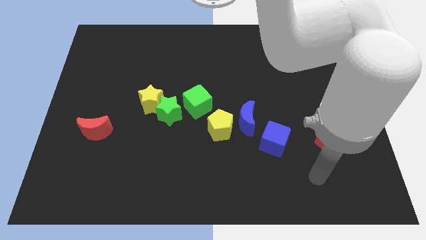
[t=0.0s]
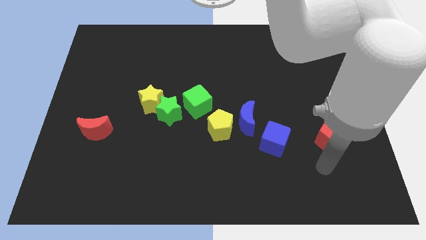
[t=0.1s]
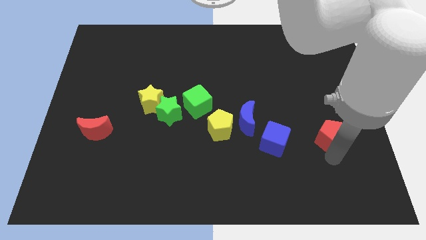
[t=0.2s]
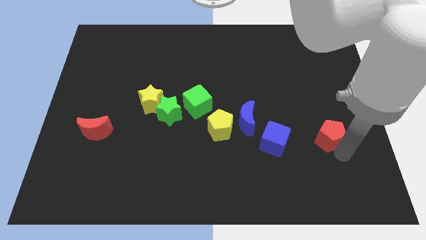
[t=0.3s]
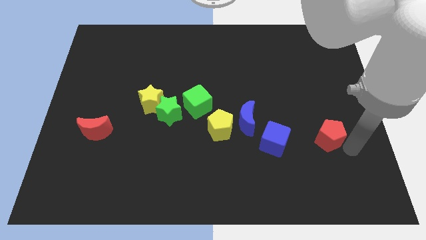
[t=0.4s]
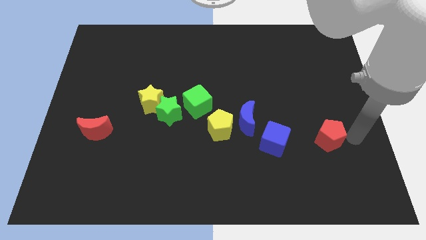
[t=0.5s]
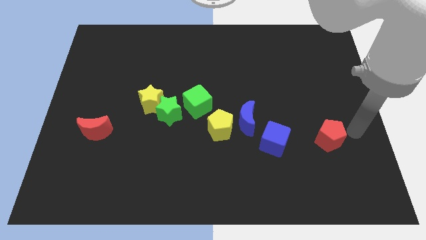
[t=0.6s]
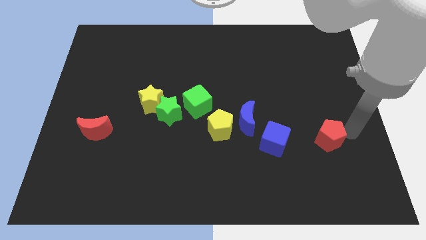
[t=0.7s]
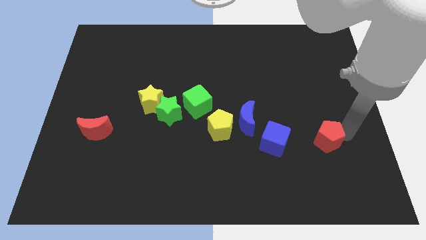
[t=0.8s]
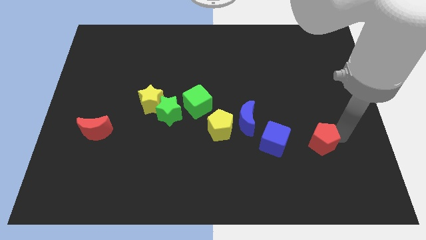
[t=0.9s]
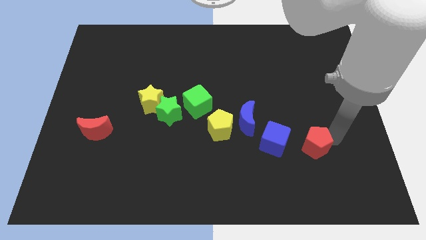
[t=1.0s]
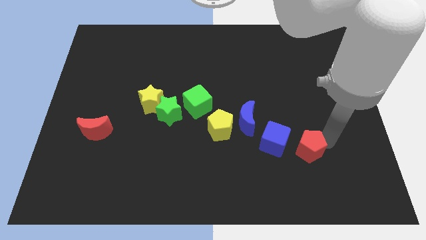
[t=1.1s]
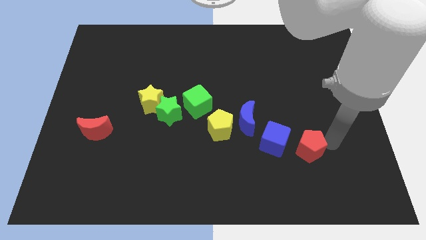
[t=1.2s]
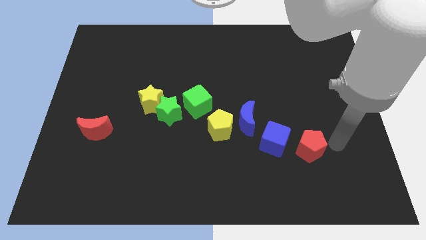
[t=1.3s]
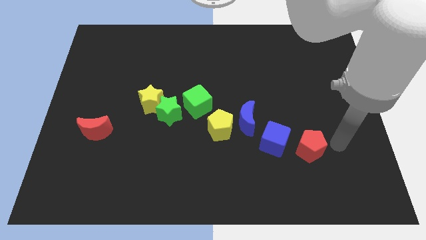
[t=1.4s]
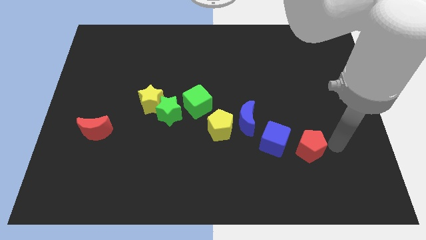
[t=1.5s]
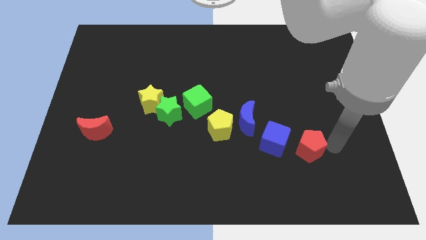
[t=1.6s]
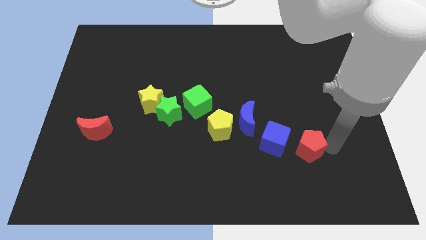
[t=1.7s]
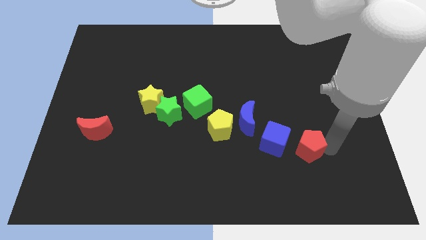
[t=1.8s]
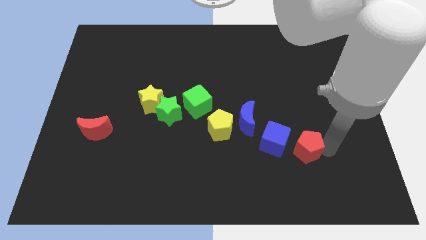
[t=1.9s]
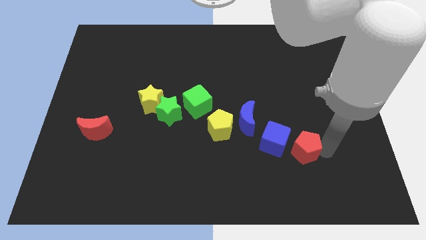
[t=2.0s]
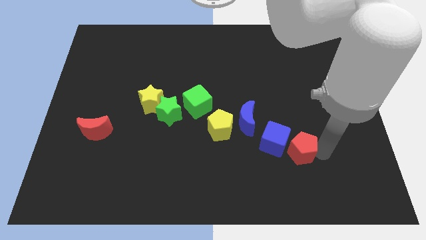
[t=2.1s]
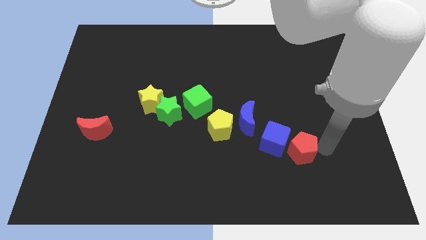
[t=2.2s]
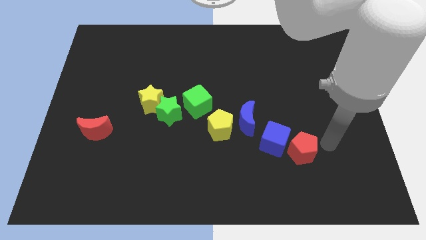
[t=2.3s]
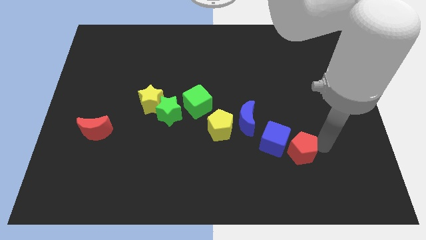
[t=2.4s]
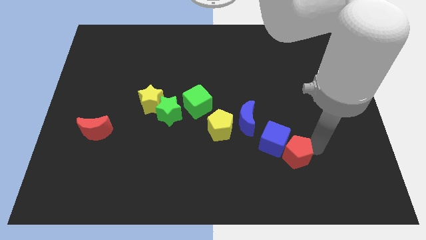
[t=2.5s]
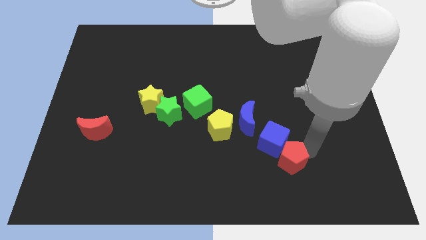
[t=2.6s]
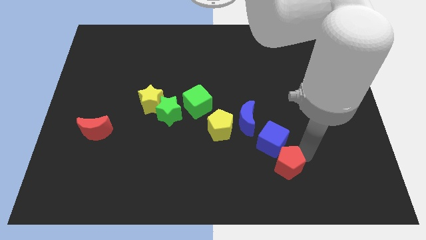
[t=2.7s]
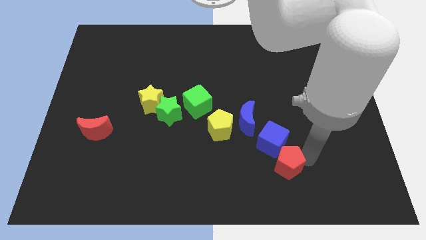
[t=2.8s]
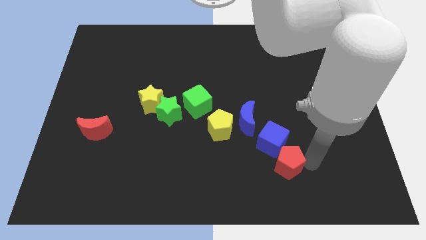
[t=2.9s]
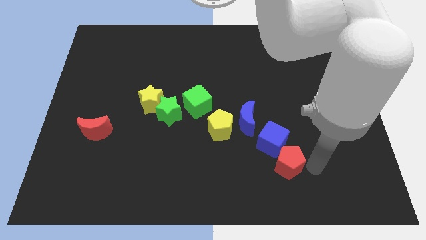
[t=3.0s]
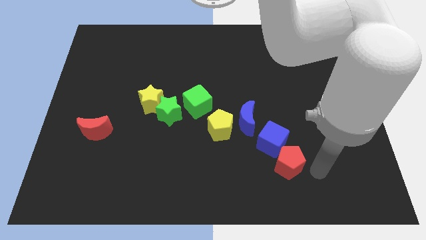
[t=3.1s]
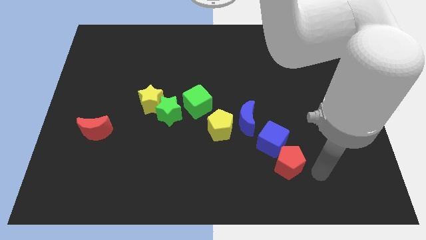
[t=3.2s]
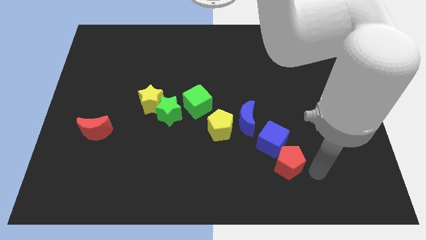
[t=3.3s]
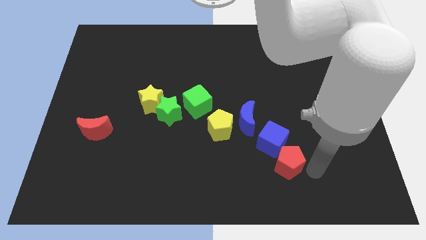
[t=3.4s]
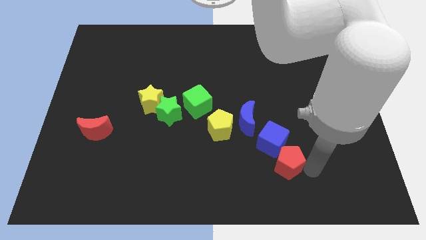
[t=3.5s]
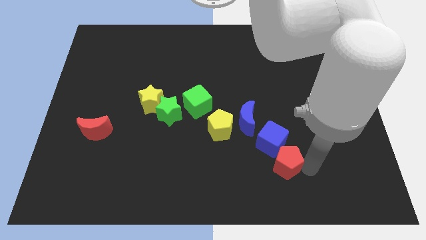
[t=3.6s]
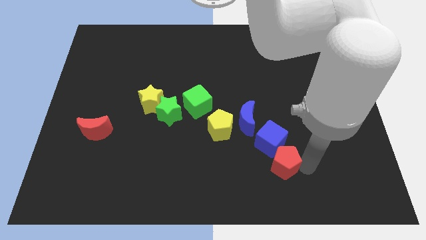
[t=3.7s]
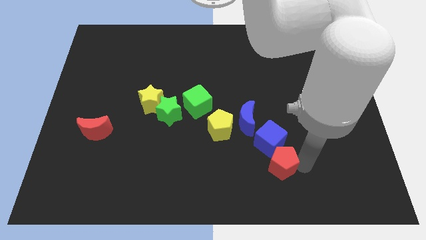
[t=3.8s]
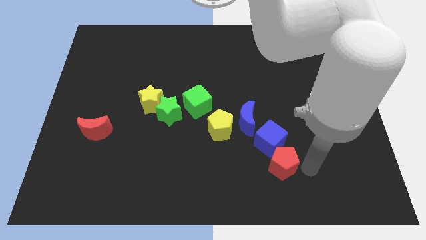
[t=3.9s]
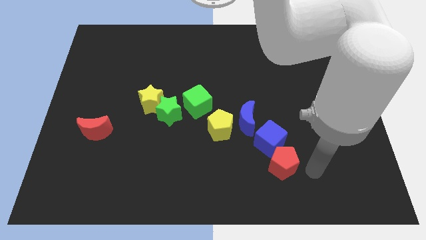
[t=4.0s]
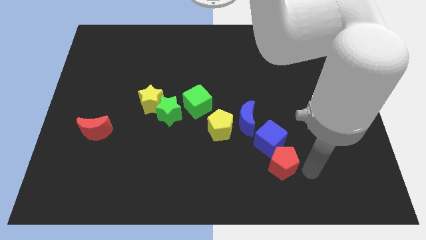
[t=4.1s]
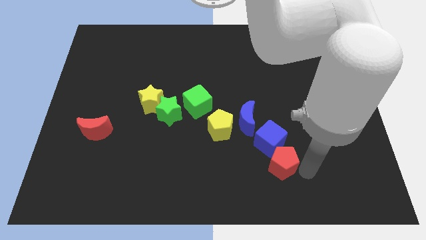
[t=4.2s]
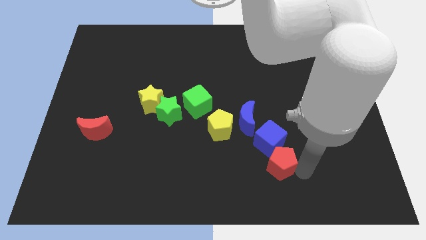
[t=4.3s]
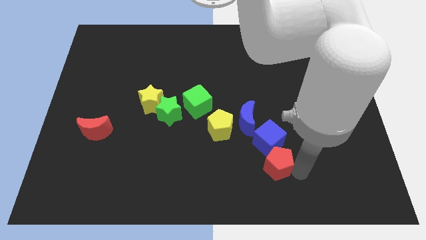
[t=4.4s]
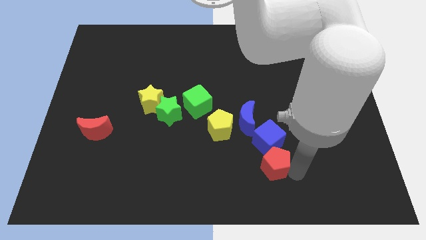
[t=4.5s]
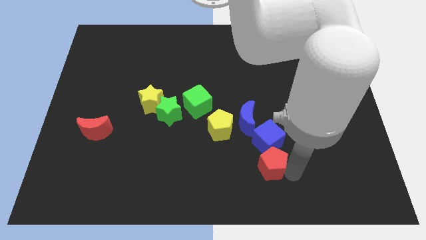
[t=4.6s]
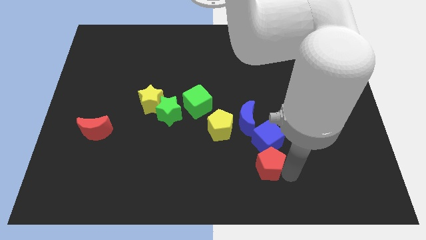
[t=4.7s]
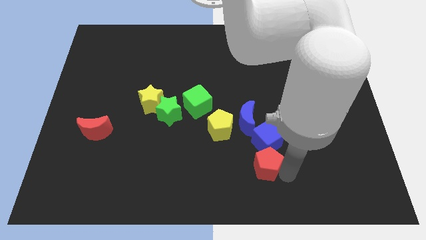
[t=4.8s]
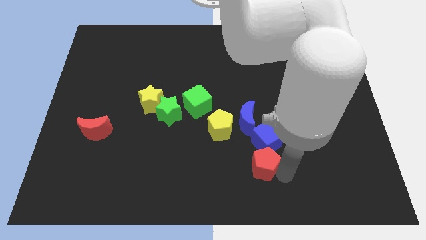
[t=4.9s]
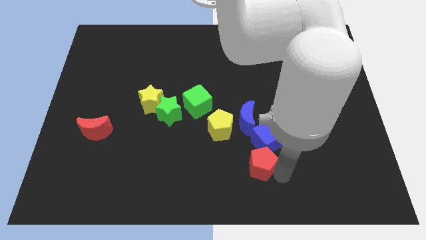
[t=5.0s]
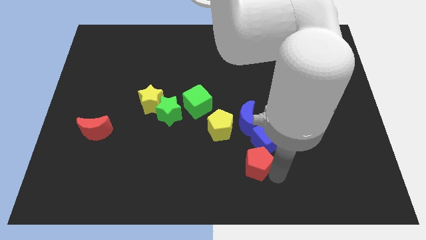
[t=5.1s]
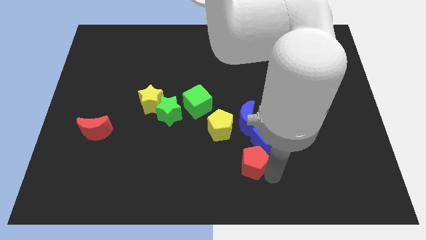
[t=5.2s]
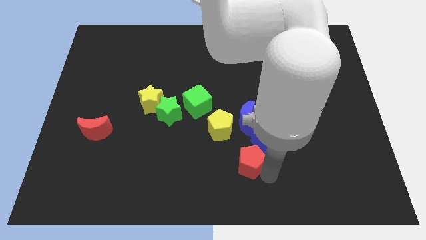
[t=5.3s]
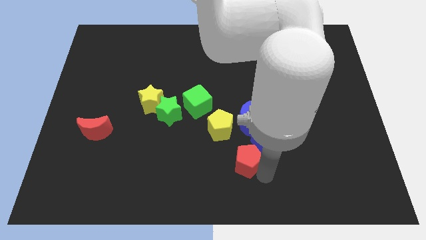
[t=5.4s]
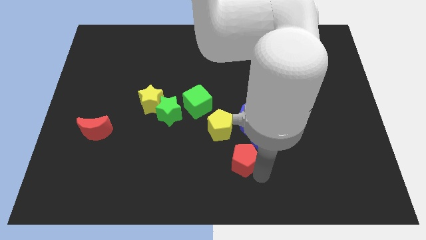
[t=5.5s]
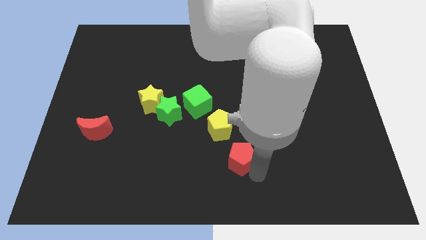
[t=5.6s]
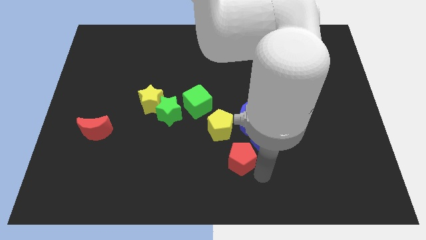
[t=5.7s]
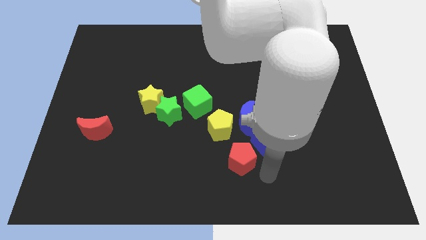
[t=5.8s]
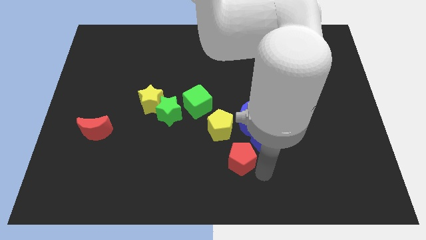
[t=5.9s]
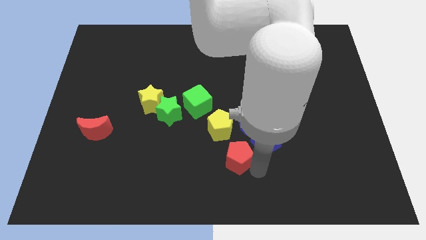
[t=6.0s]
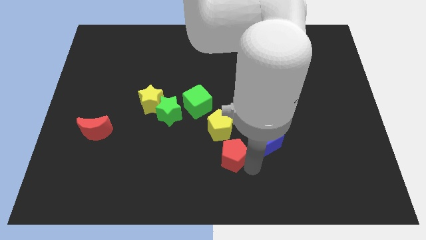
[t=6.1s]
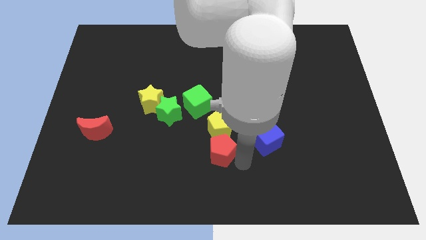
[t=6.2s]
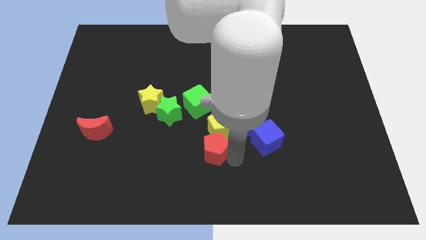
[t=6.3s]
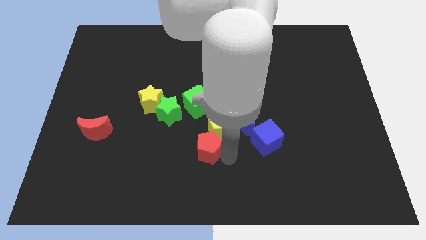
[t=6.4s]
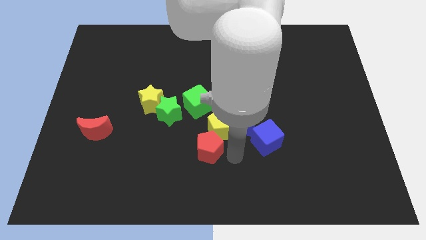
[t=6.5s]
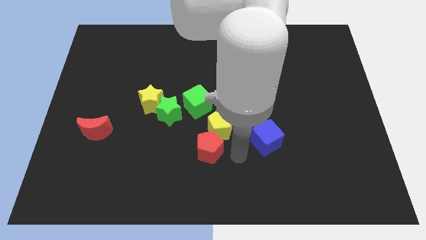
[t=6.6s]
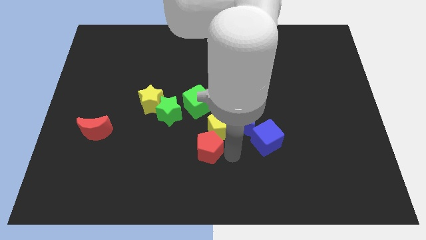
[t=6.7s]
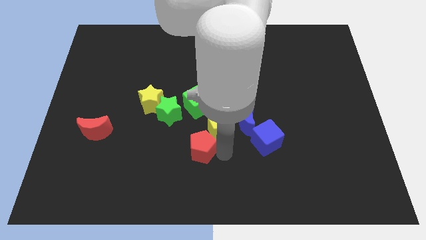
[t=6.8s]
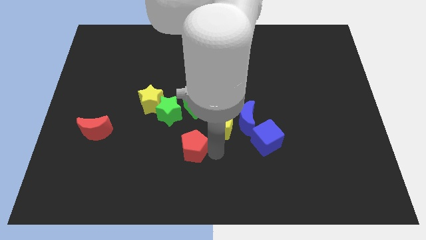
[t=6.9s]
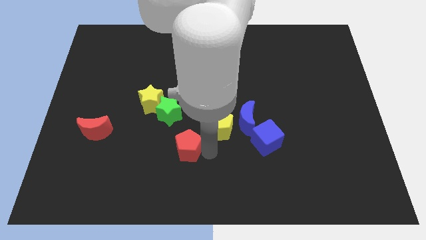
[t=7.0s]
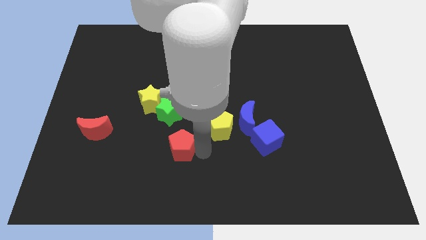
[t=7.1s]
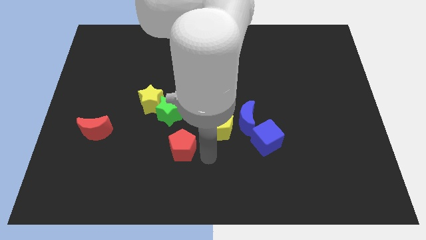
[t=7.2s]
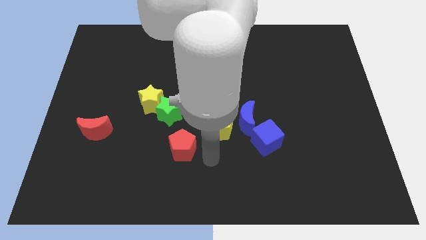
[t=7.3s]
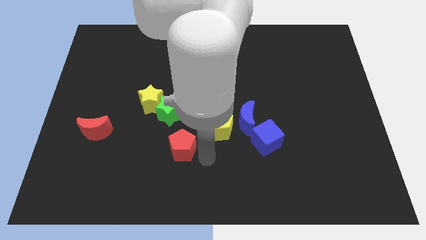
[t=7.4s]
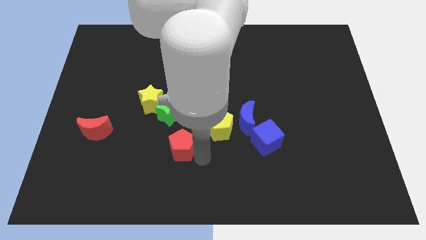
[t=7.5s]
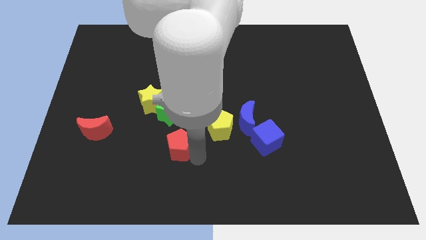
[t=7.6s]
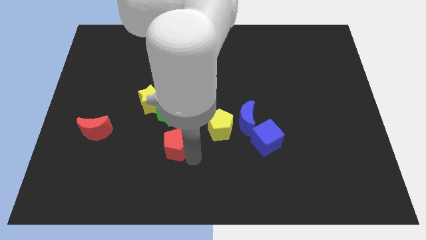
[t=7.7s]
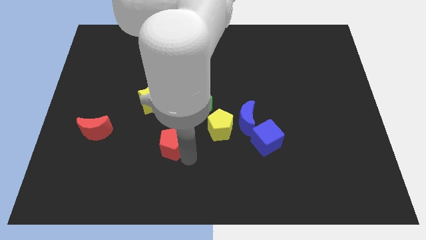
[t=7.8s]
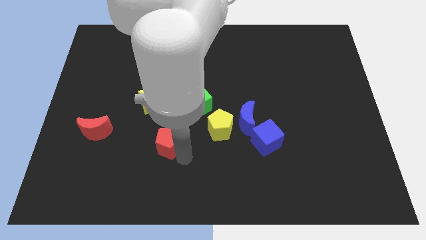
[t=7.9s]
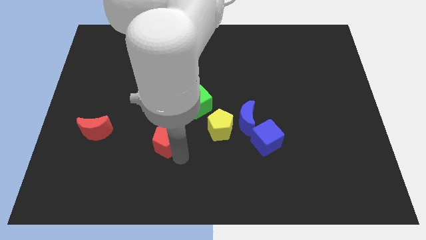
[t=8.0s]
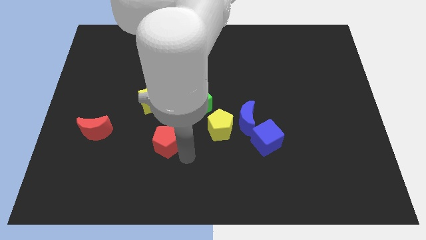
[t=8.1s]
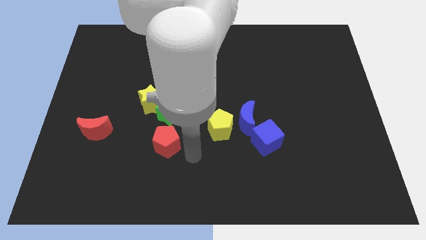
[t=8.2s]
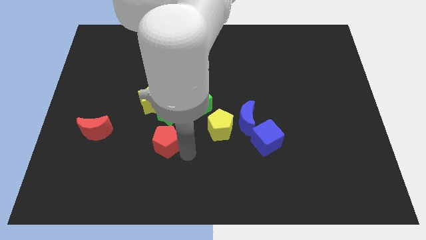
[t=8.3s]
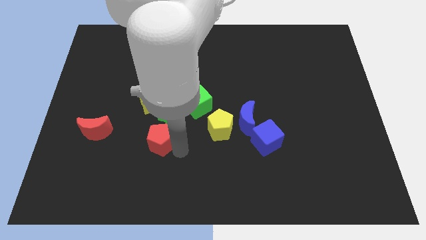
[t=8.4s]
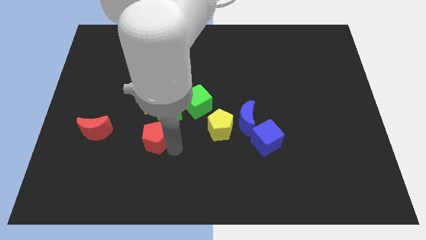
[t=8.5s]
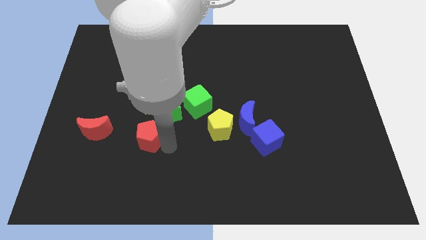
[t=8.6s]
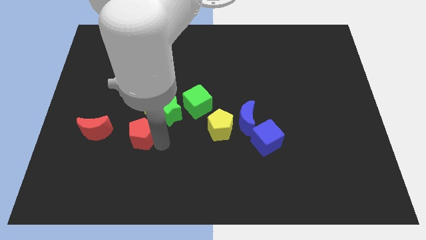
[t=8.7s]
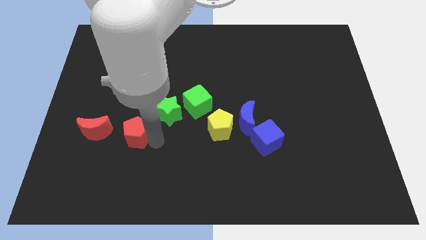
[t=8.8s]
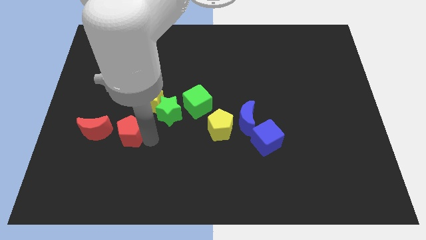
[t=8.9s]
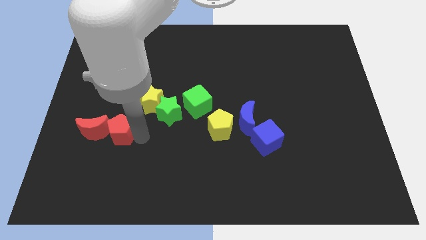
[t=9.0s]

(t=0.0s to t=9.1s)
push the red pentagon to the red moon
